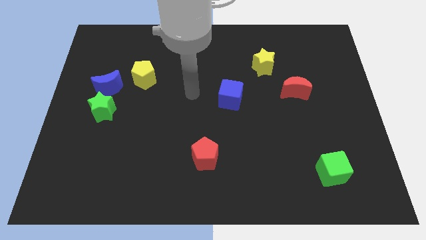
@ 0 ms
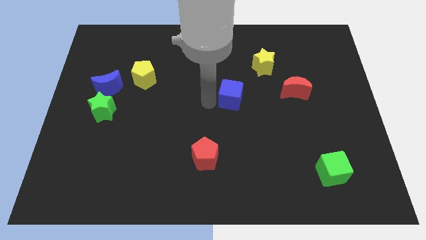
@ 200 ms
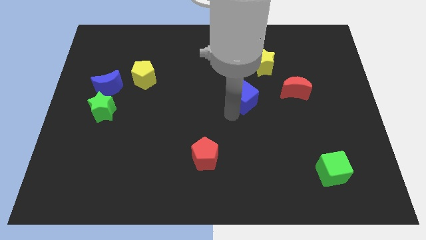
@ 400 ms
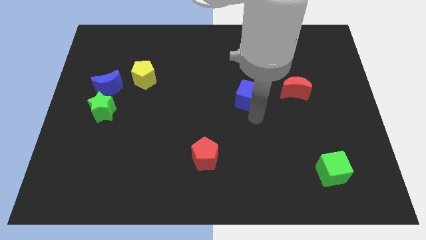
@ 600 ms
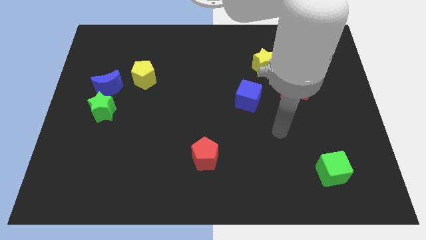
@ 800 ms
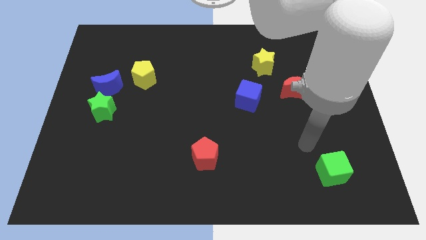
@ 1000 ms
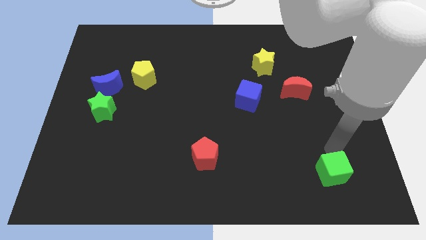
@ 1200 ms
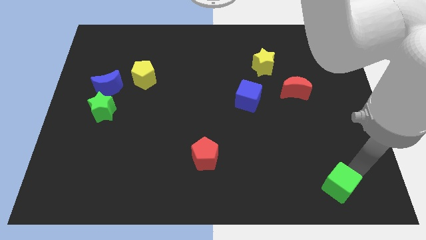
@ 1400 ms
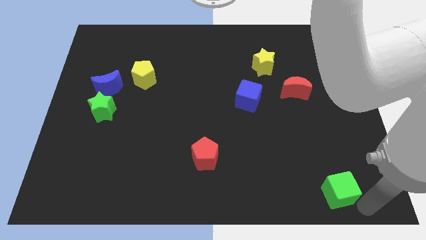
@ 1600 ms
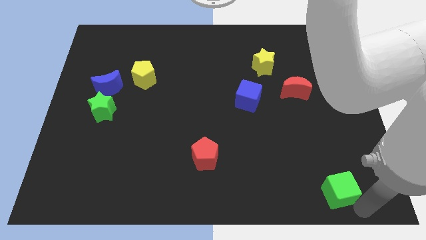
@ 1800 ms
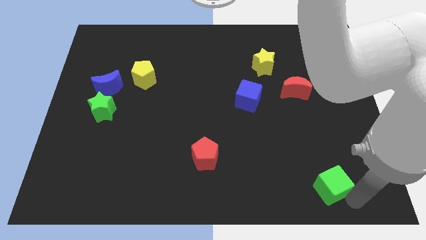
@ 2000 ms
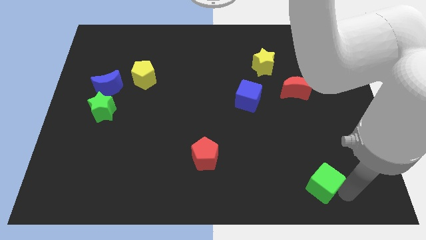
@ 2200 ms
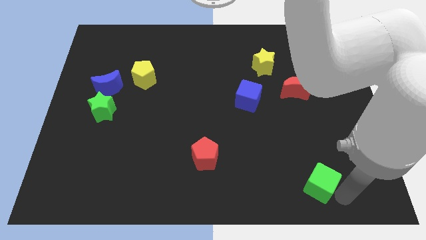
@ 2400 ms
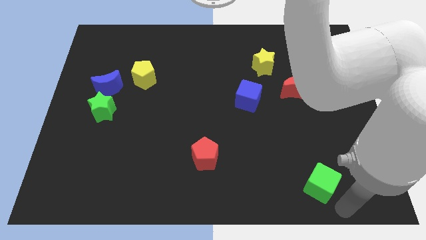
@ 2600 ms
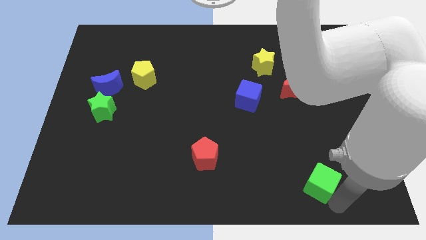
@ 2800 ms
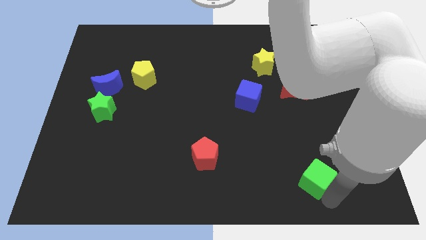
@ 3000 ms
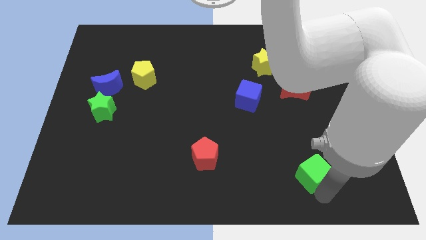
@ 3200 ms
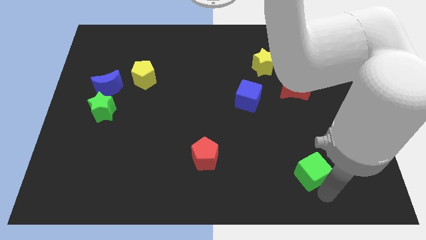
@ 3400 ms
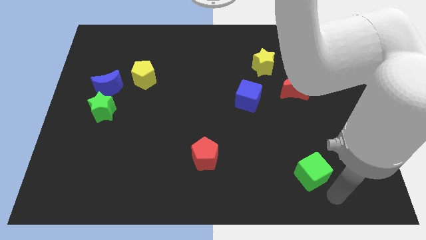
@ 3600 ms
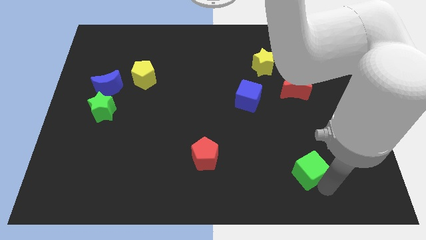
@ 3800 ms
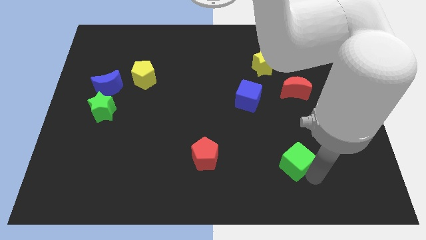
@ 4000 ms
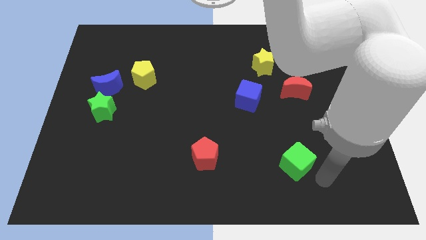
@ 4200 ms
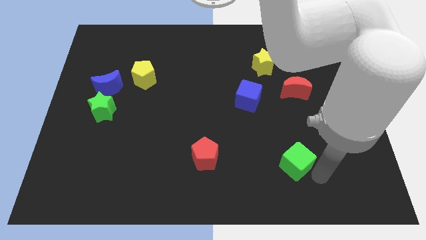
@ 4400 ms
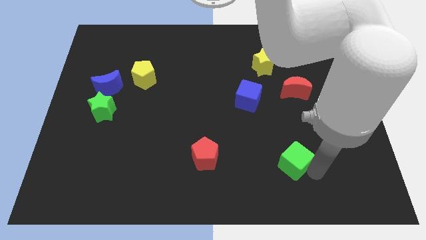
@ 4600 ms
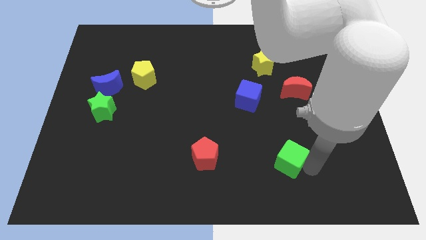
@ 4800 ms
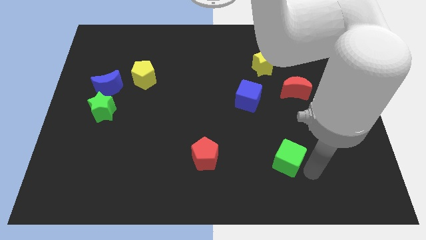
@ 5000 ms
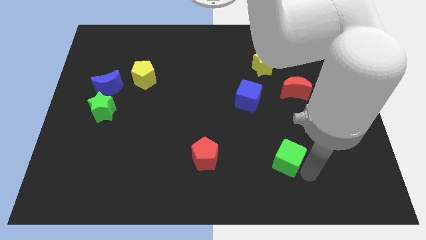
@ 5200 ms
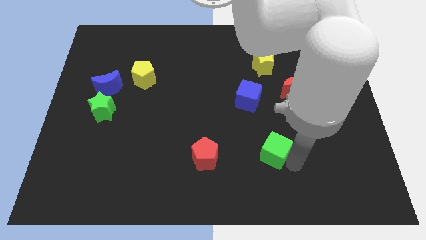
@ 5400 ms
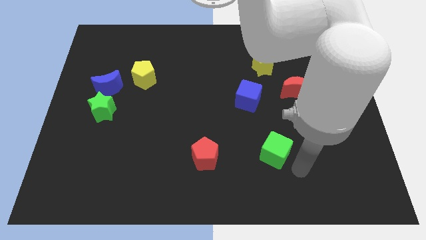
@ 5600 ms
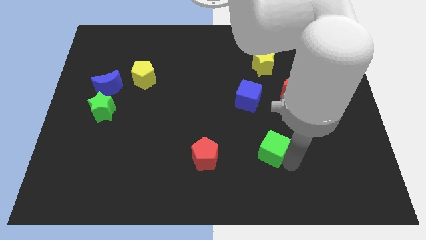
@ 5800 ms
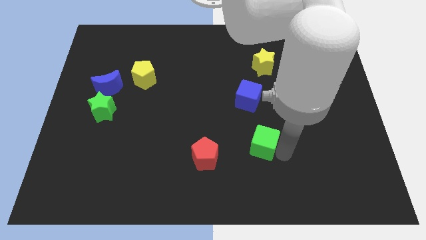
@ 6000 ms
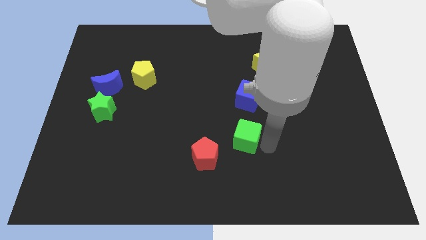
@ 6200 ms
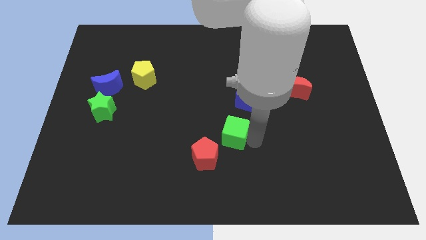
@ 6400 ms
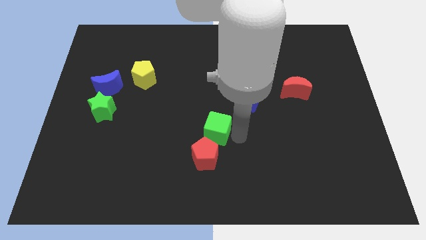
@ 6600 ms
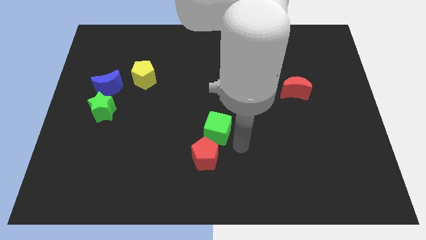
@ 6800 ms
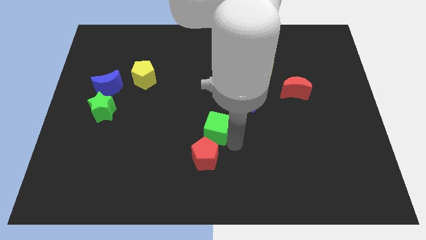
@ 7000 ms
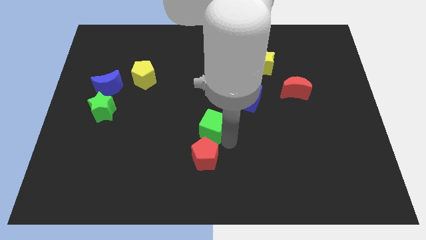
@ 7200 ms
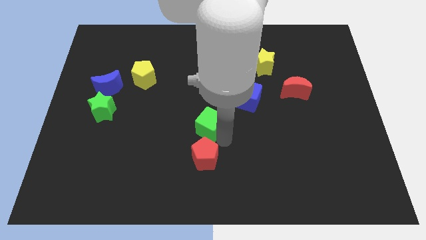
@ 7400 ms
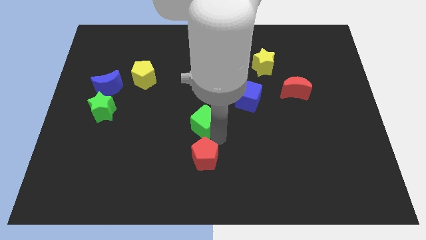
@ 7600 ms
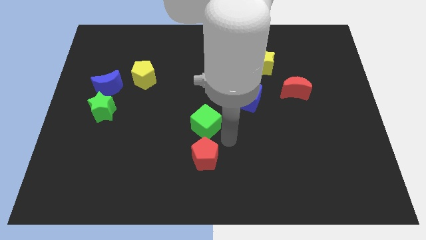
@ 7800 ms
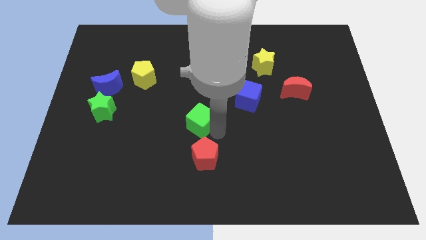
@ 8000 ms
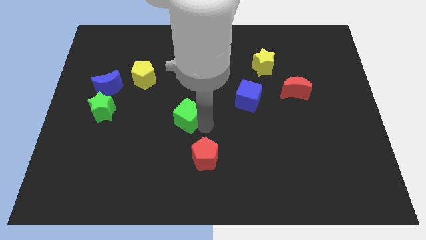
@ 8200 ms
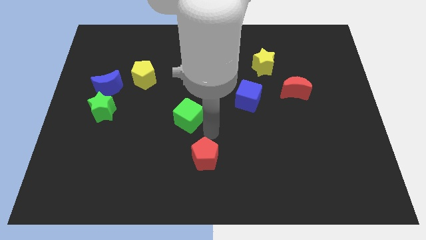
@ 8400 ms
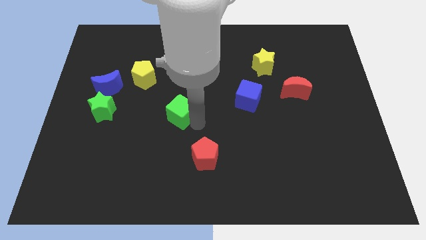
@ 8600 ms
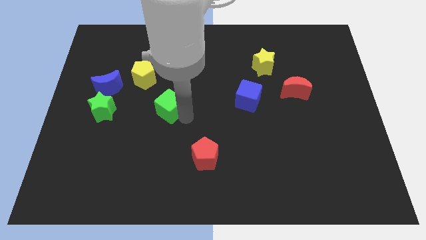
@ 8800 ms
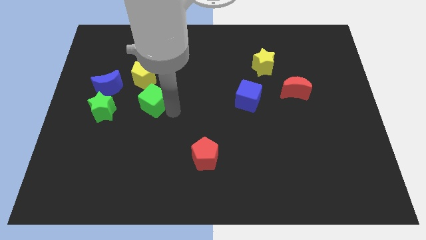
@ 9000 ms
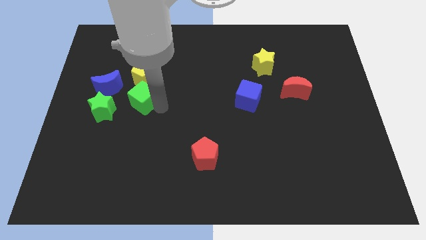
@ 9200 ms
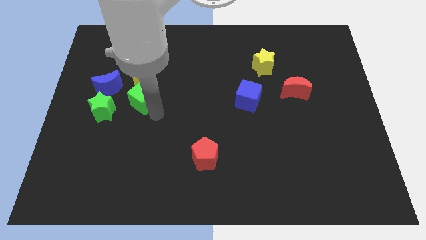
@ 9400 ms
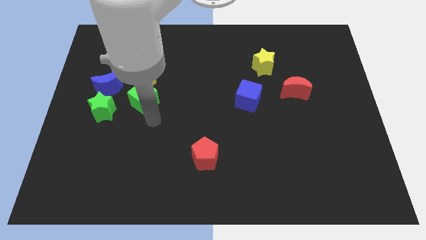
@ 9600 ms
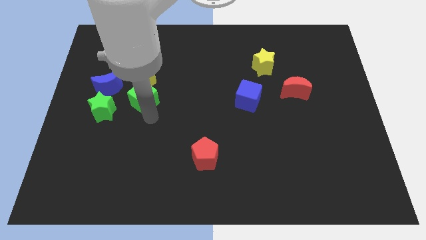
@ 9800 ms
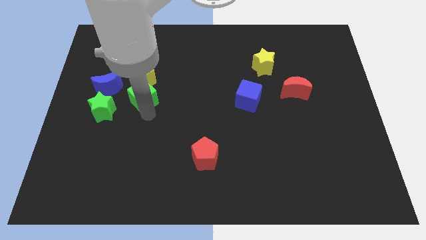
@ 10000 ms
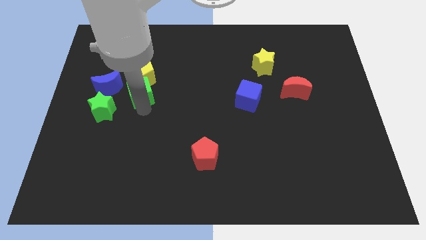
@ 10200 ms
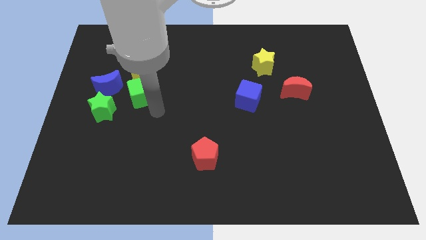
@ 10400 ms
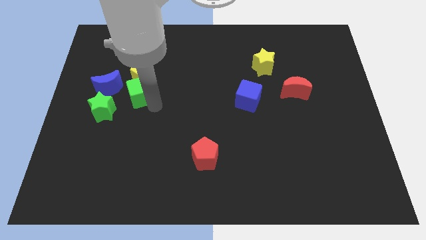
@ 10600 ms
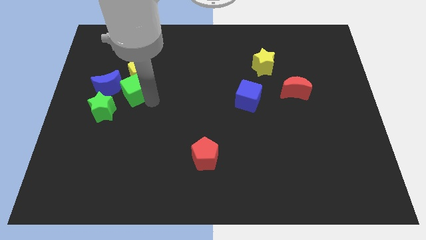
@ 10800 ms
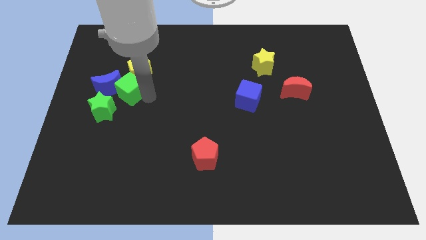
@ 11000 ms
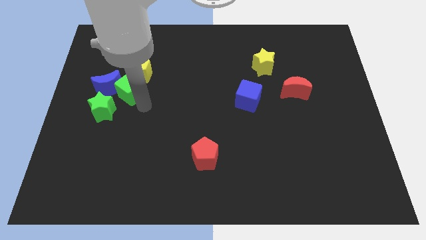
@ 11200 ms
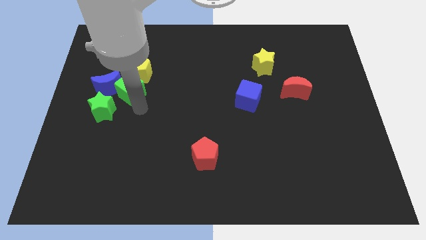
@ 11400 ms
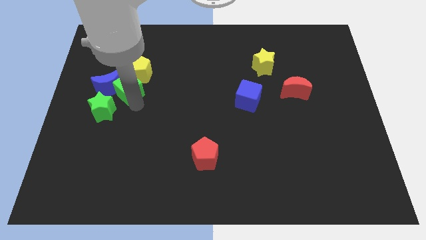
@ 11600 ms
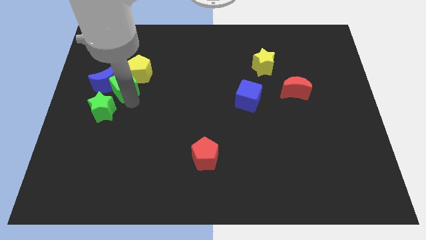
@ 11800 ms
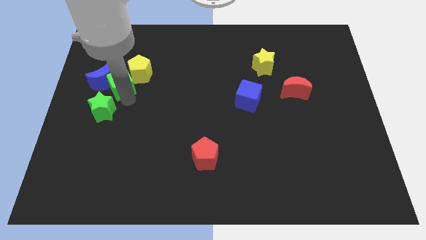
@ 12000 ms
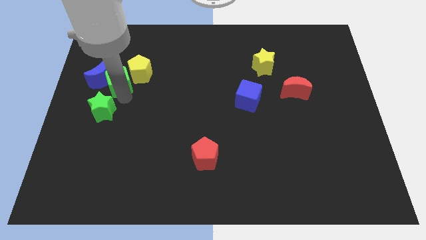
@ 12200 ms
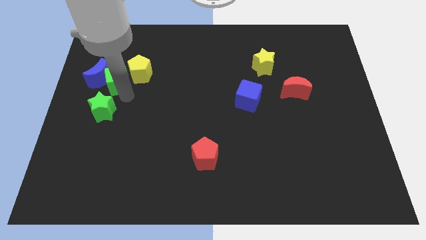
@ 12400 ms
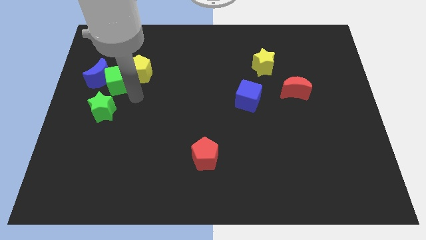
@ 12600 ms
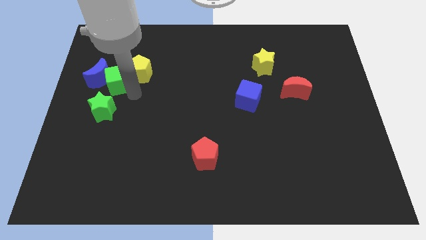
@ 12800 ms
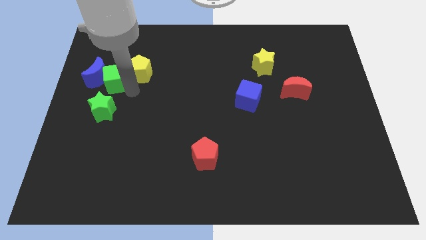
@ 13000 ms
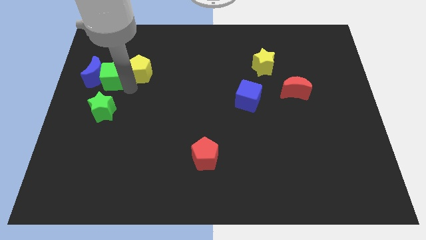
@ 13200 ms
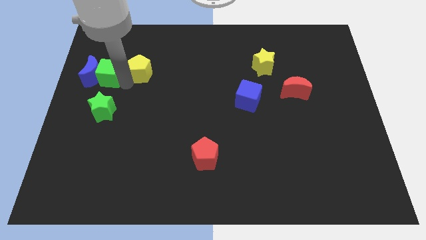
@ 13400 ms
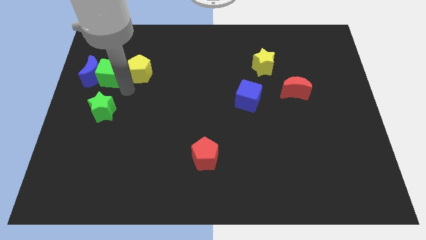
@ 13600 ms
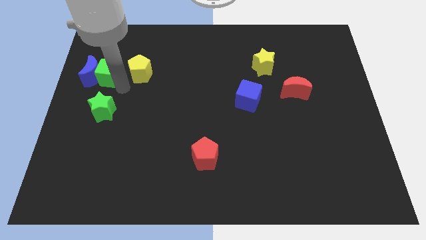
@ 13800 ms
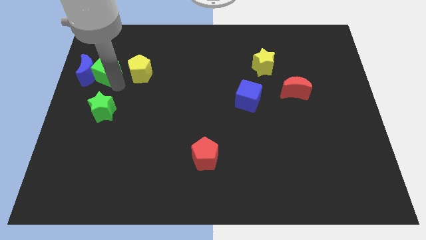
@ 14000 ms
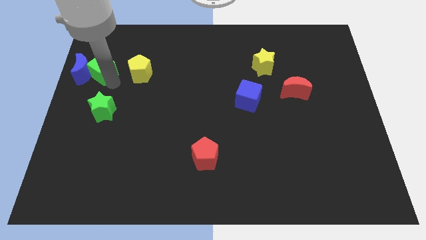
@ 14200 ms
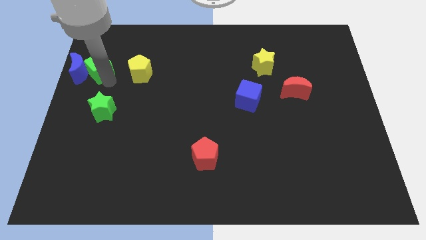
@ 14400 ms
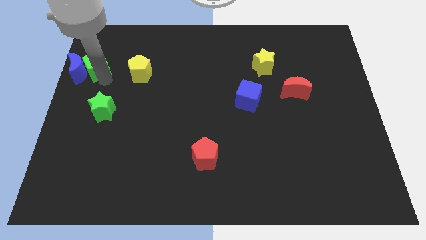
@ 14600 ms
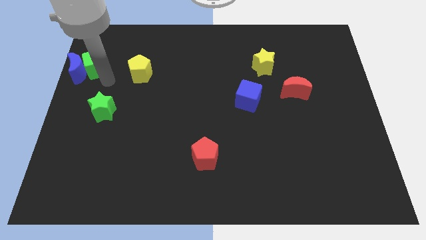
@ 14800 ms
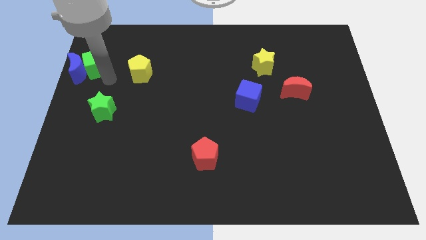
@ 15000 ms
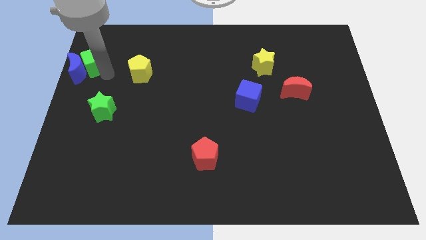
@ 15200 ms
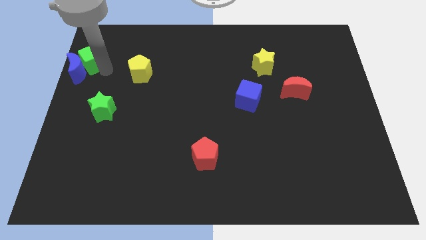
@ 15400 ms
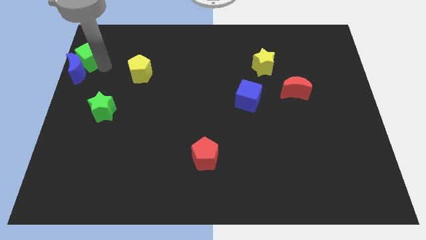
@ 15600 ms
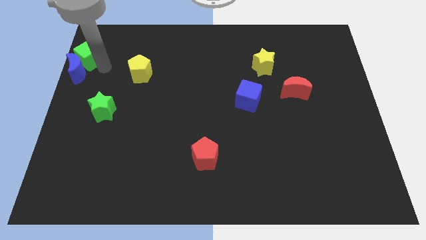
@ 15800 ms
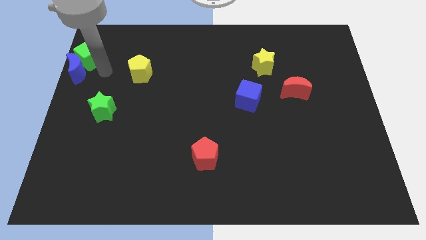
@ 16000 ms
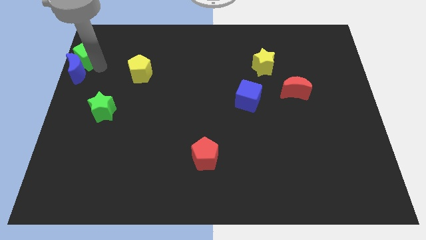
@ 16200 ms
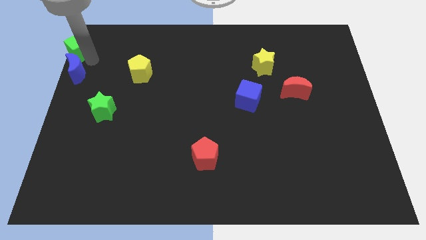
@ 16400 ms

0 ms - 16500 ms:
push the green cube to the top left corner
